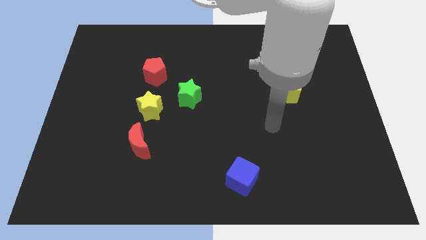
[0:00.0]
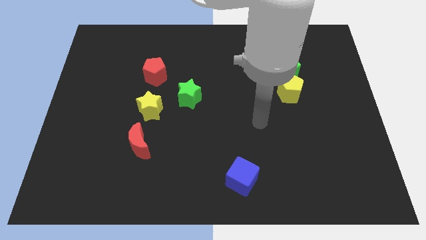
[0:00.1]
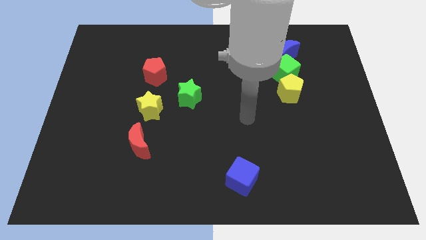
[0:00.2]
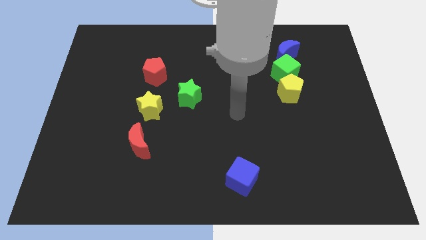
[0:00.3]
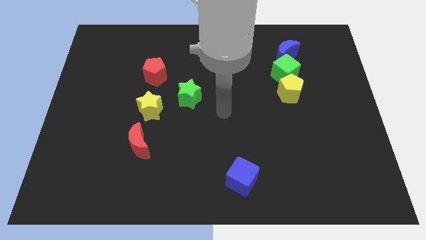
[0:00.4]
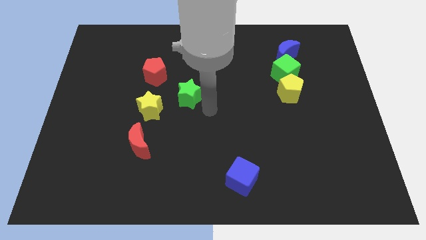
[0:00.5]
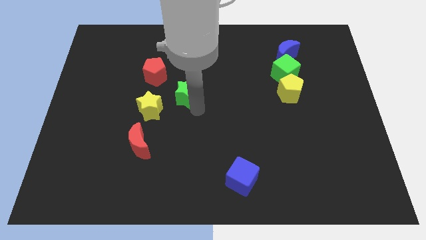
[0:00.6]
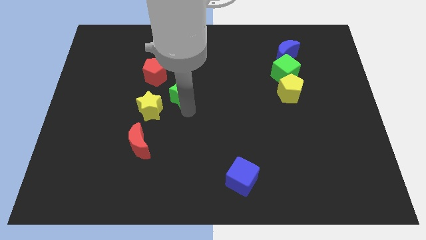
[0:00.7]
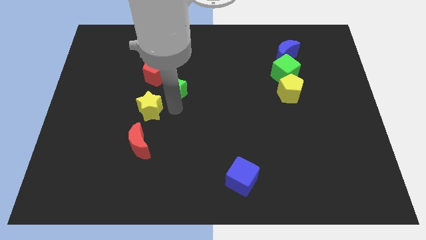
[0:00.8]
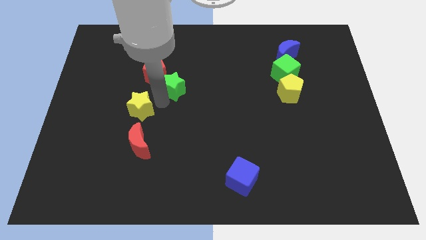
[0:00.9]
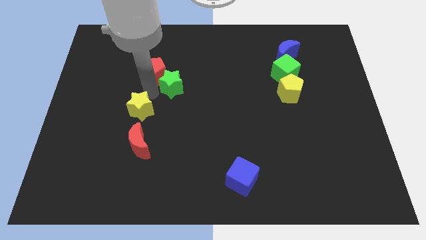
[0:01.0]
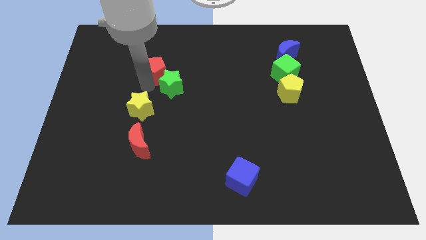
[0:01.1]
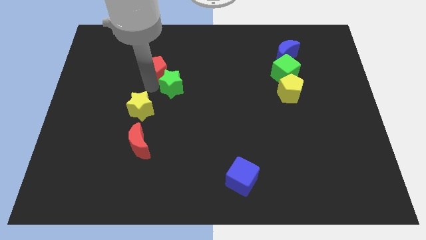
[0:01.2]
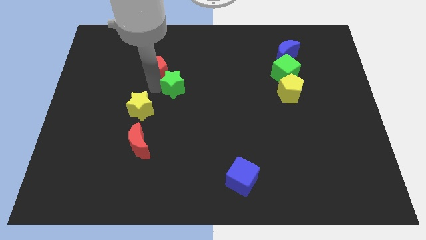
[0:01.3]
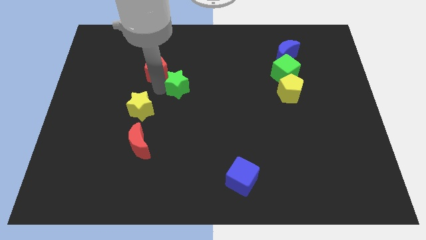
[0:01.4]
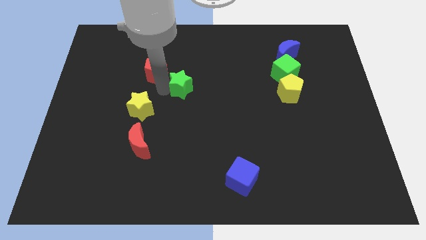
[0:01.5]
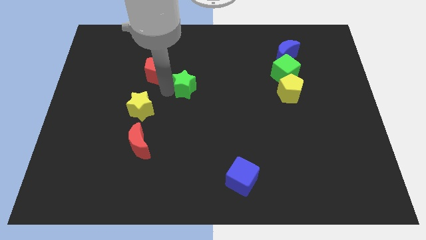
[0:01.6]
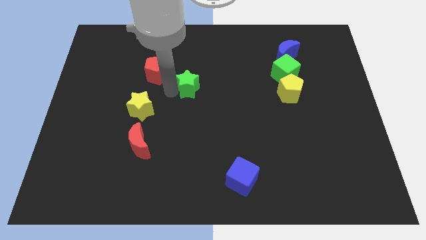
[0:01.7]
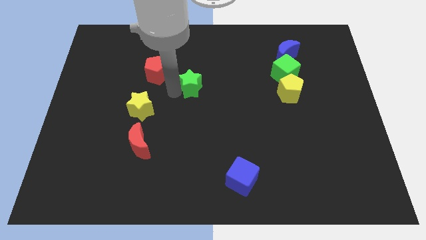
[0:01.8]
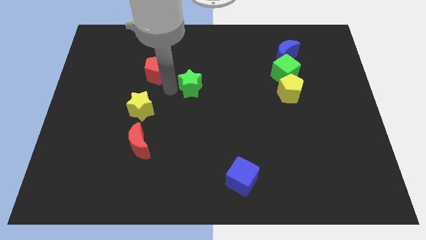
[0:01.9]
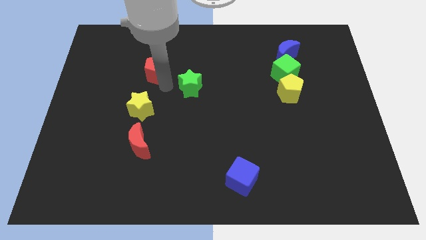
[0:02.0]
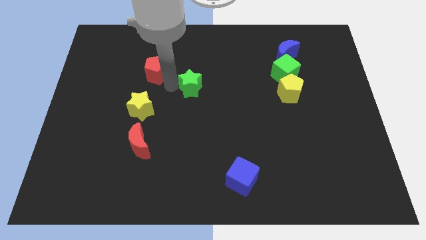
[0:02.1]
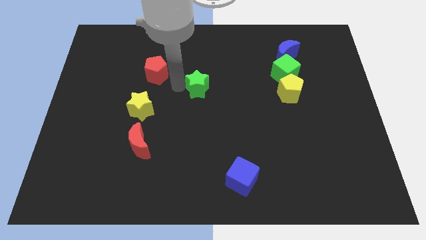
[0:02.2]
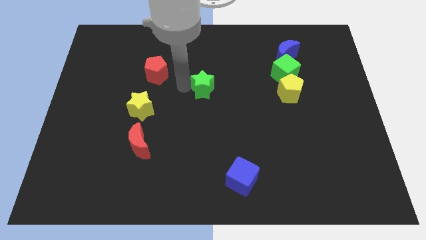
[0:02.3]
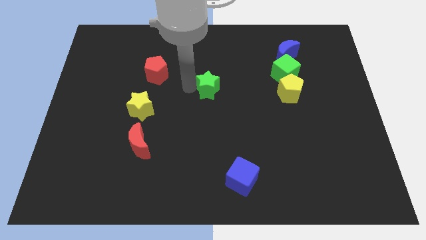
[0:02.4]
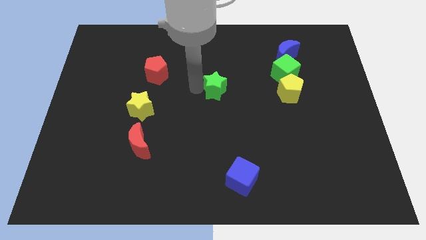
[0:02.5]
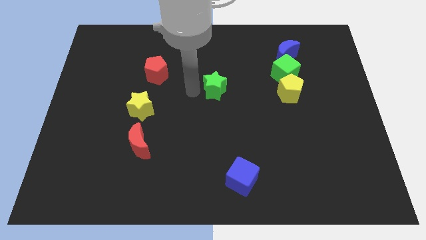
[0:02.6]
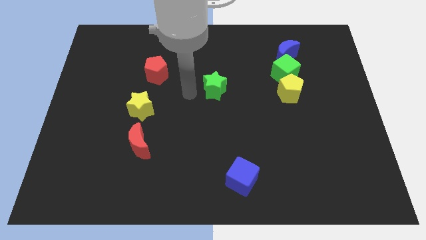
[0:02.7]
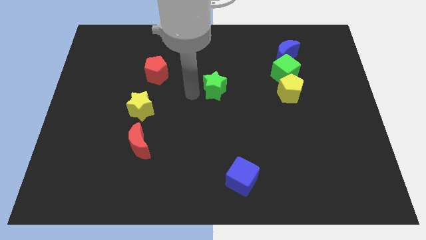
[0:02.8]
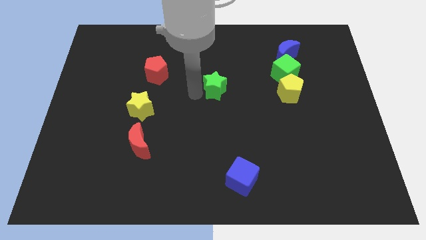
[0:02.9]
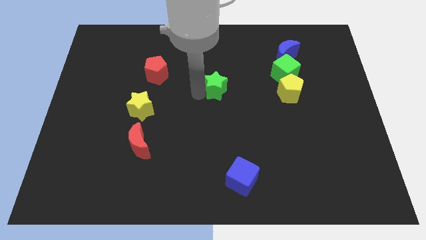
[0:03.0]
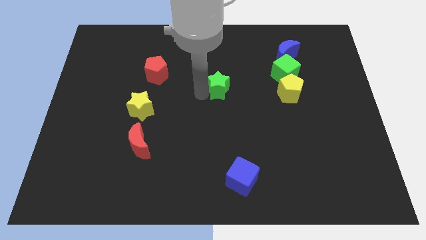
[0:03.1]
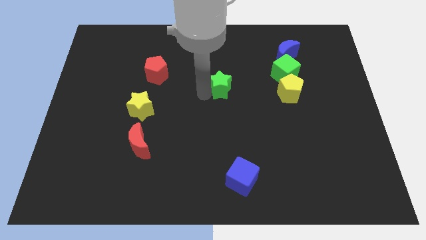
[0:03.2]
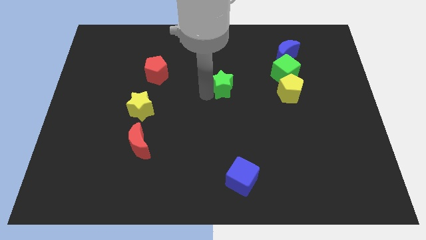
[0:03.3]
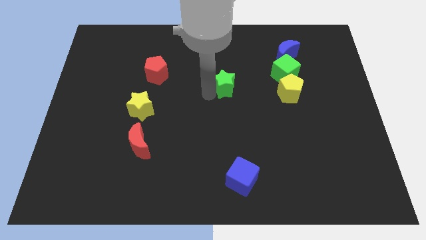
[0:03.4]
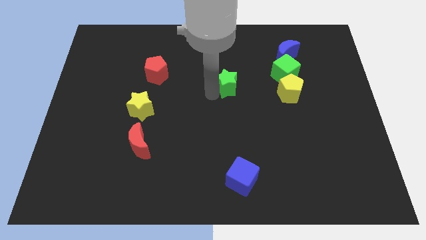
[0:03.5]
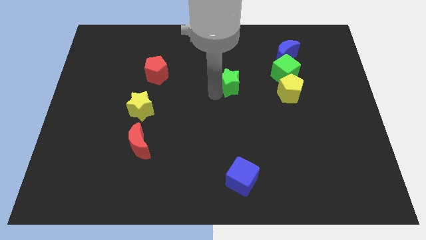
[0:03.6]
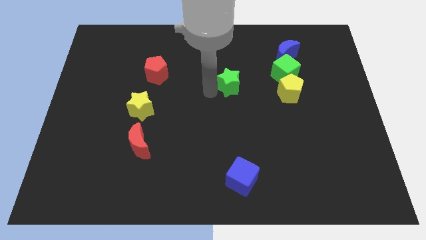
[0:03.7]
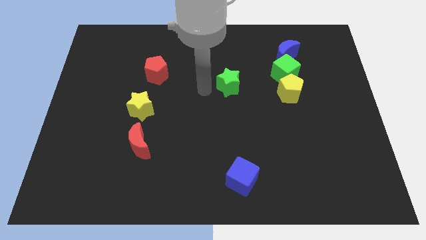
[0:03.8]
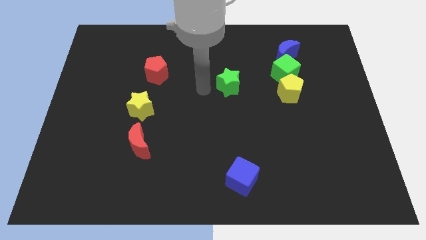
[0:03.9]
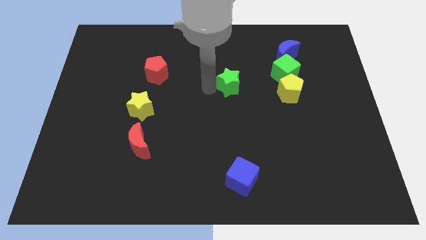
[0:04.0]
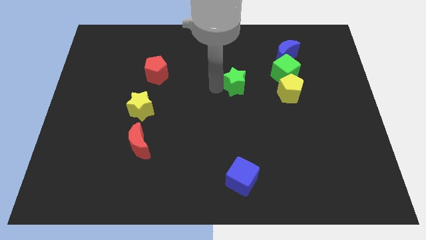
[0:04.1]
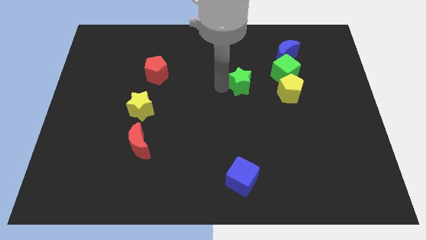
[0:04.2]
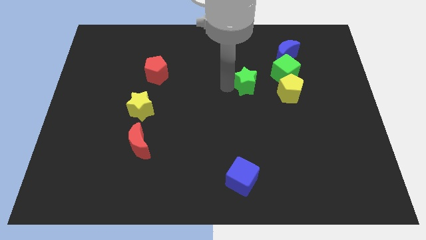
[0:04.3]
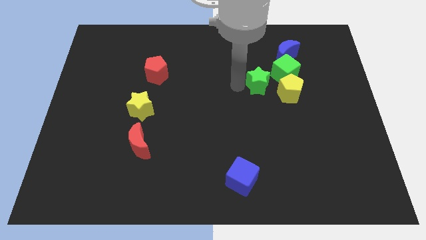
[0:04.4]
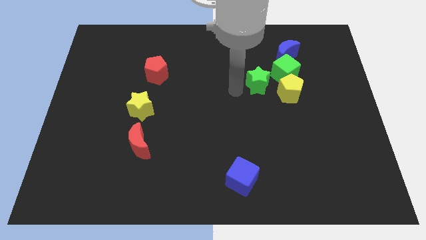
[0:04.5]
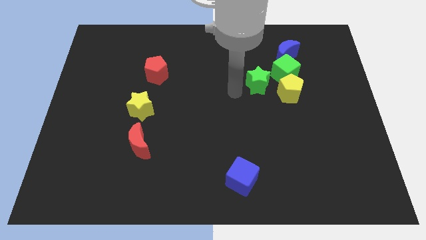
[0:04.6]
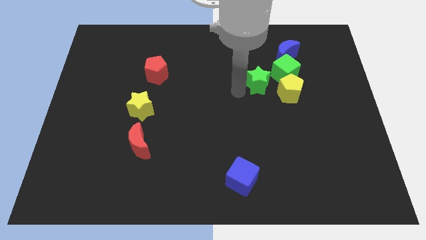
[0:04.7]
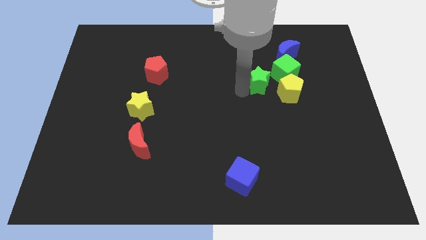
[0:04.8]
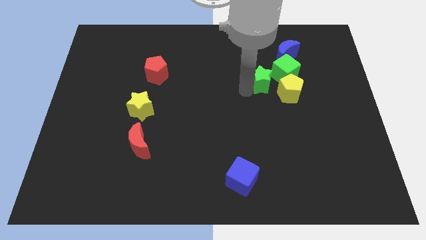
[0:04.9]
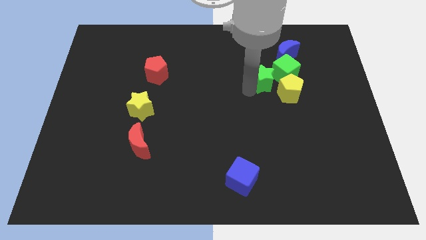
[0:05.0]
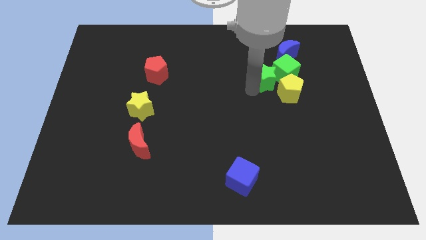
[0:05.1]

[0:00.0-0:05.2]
push the green star close to the green cube

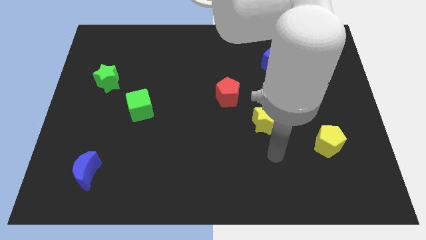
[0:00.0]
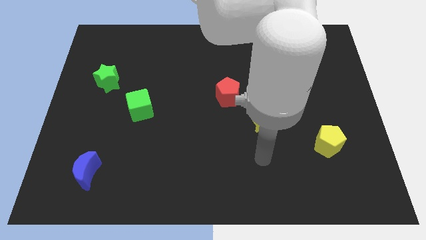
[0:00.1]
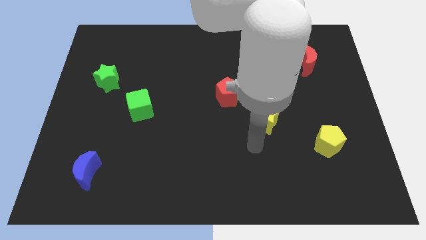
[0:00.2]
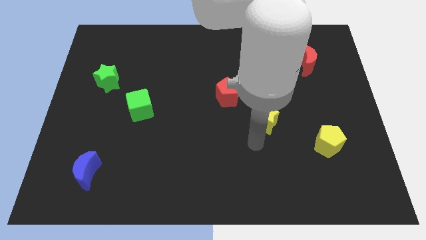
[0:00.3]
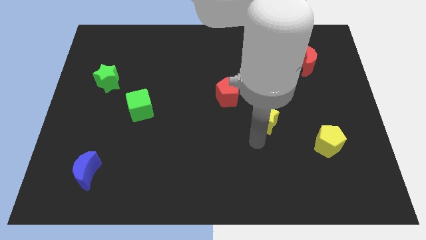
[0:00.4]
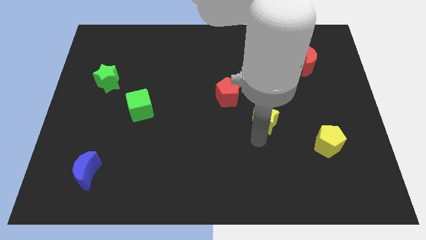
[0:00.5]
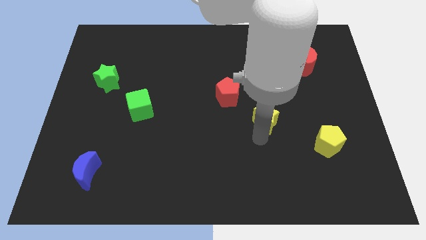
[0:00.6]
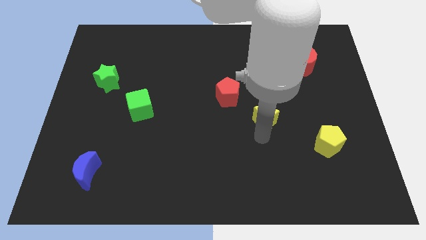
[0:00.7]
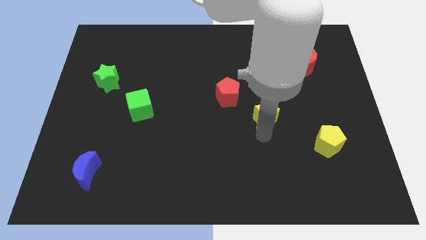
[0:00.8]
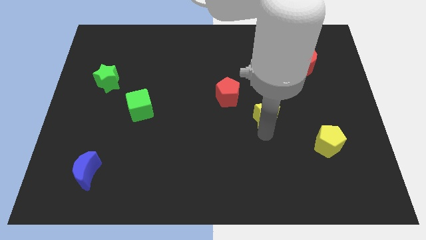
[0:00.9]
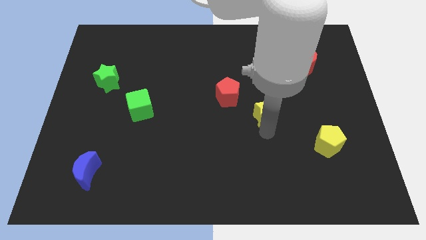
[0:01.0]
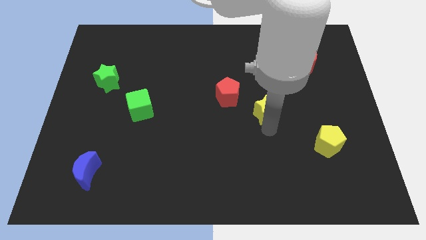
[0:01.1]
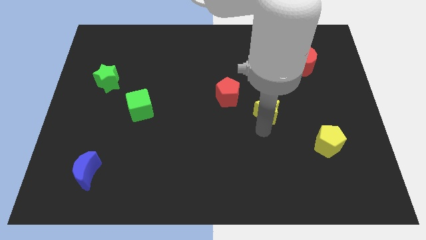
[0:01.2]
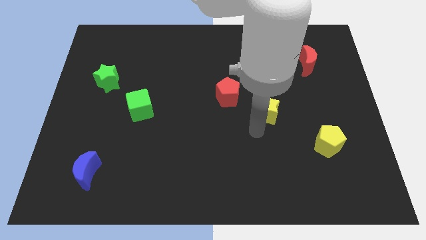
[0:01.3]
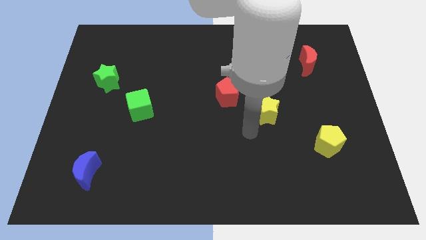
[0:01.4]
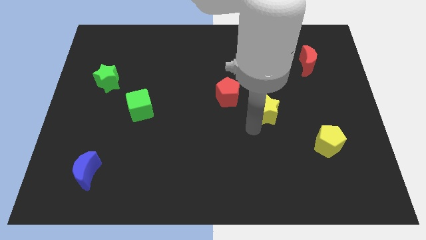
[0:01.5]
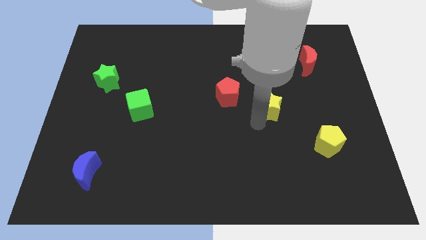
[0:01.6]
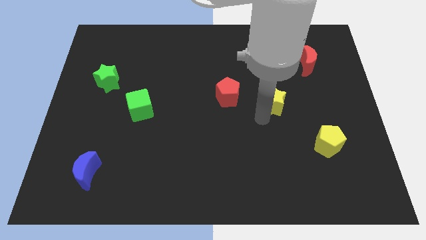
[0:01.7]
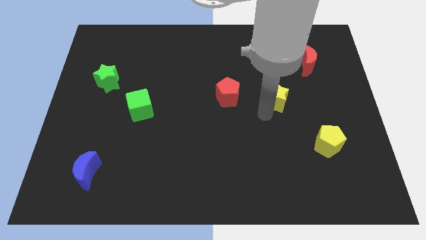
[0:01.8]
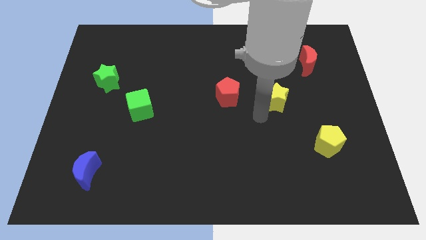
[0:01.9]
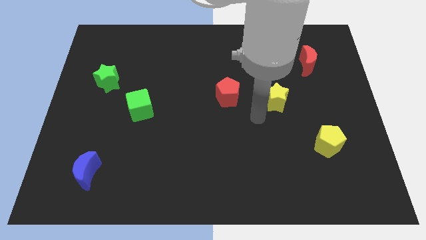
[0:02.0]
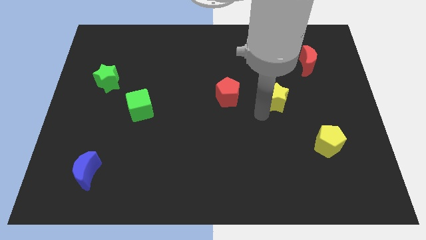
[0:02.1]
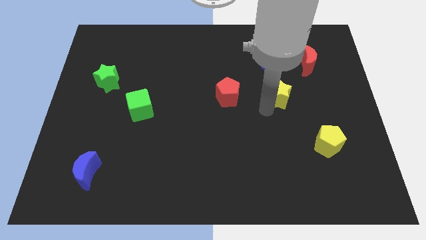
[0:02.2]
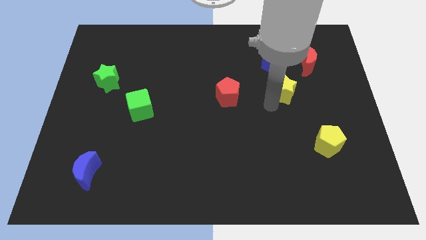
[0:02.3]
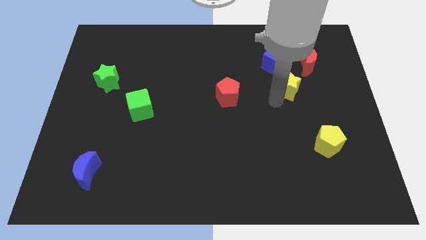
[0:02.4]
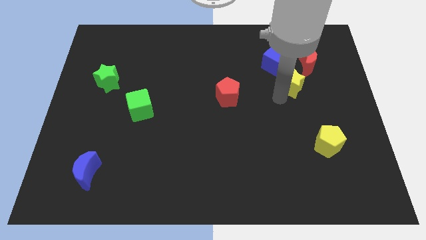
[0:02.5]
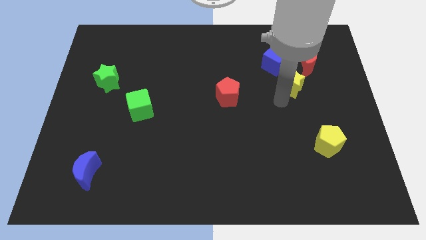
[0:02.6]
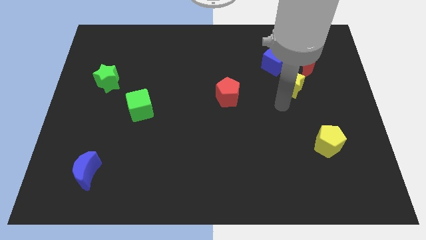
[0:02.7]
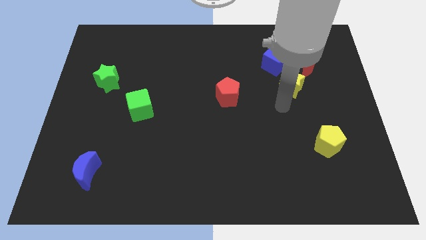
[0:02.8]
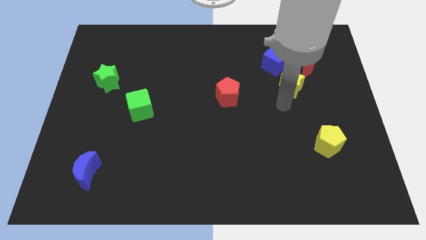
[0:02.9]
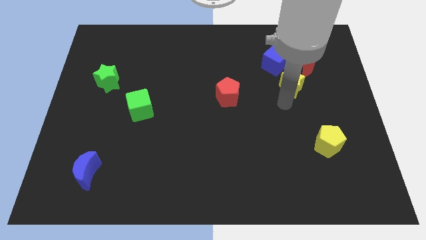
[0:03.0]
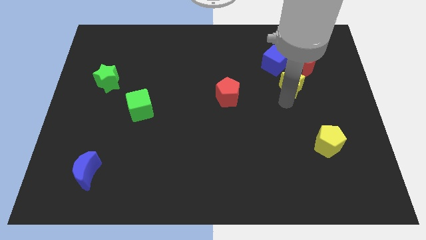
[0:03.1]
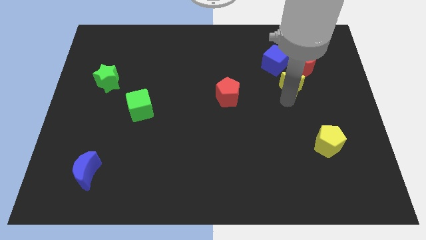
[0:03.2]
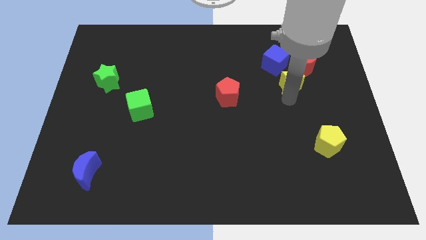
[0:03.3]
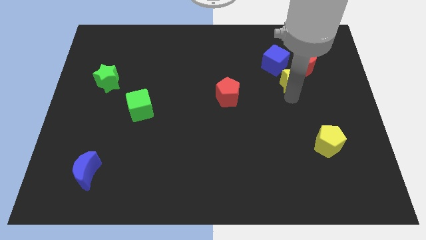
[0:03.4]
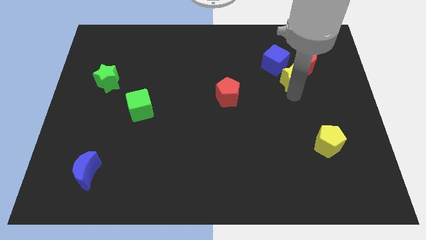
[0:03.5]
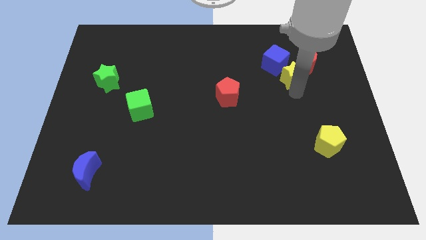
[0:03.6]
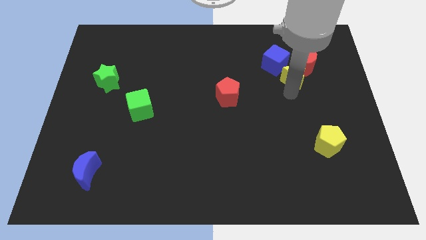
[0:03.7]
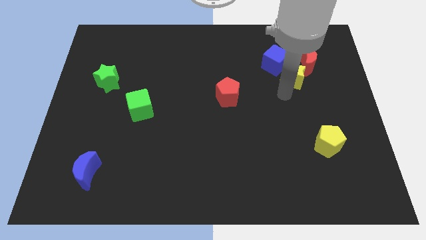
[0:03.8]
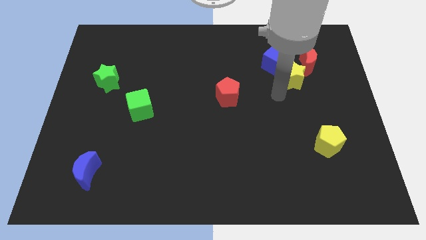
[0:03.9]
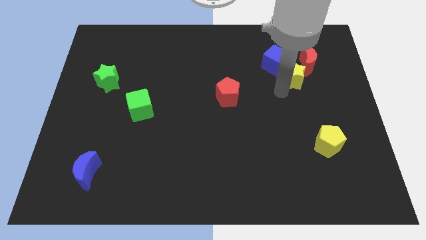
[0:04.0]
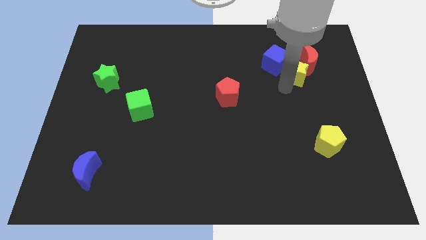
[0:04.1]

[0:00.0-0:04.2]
move the yellow star next to the red moon
